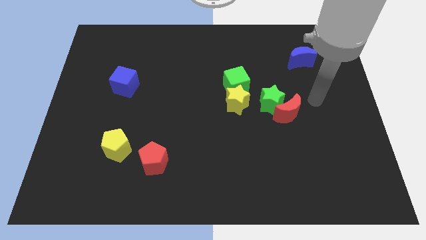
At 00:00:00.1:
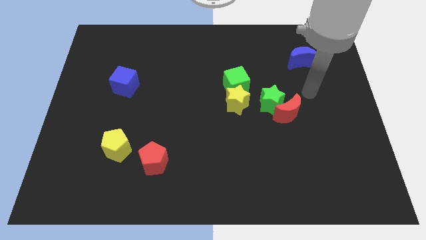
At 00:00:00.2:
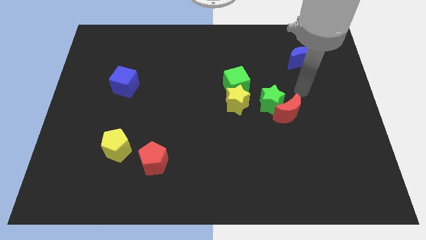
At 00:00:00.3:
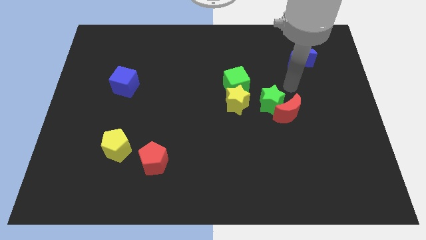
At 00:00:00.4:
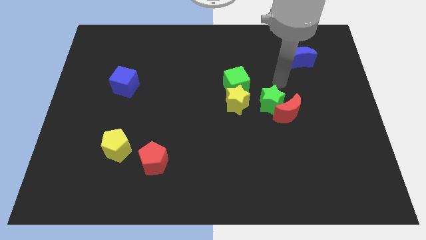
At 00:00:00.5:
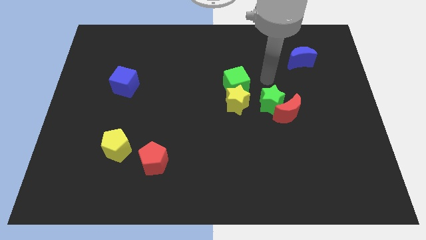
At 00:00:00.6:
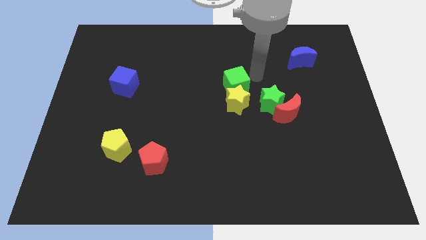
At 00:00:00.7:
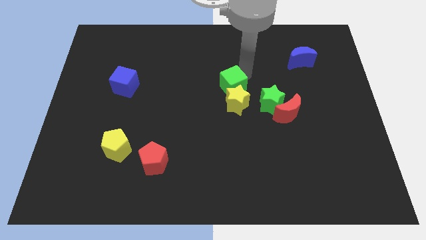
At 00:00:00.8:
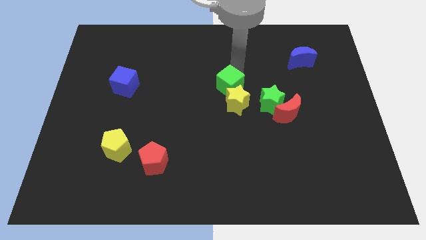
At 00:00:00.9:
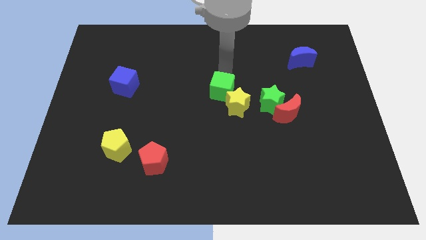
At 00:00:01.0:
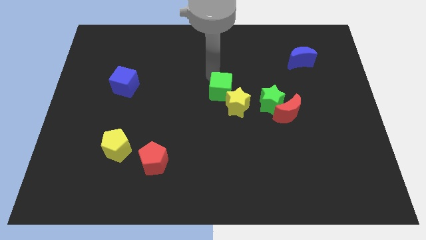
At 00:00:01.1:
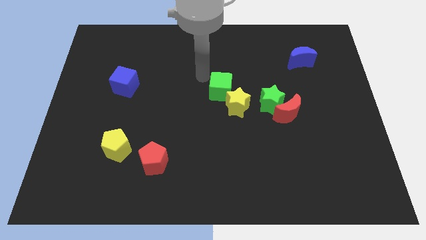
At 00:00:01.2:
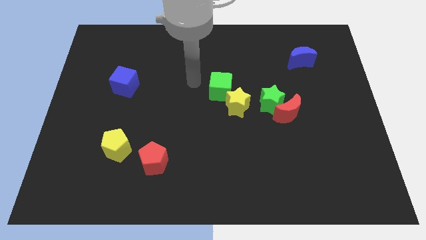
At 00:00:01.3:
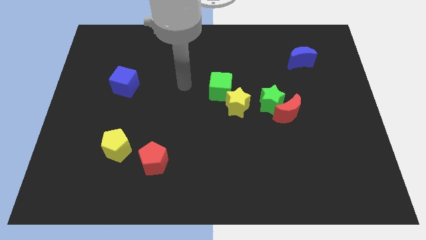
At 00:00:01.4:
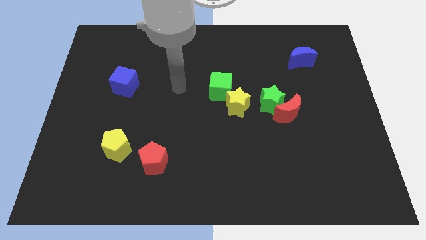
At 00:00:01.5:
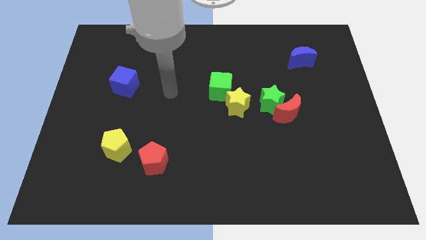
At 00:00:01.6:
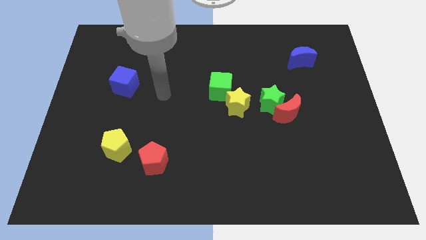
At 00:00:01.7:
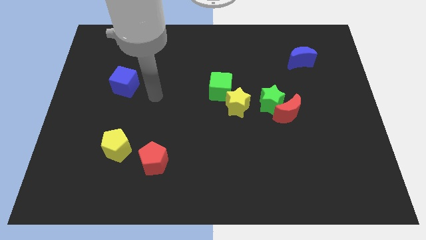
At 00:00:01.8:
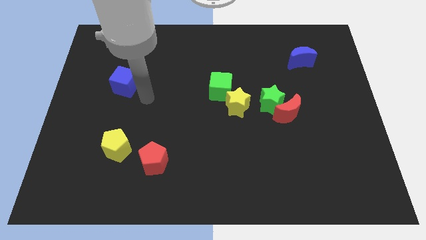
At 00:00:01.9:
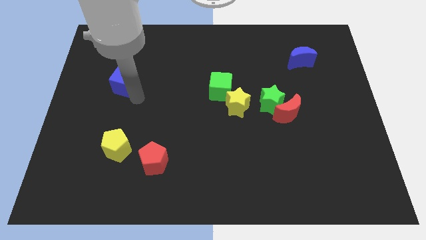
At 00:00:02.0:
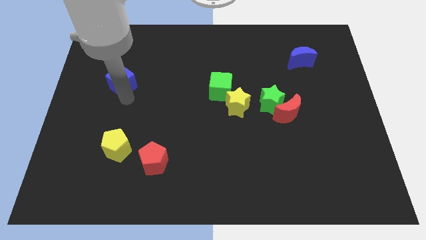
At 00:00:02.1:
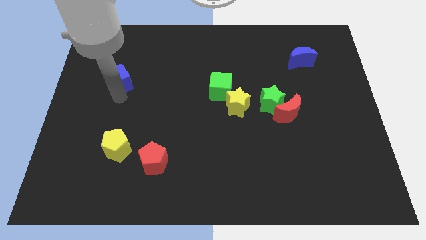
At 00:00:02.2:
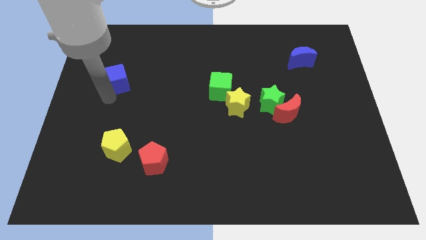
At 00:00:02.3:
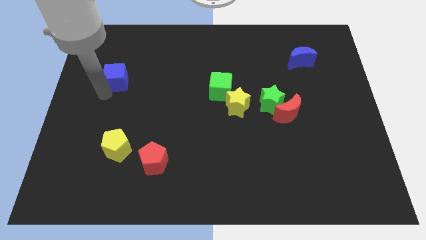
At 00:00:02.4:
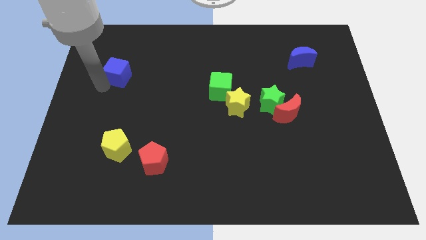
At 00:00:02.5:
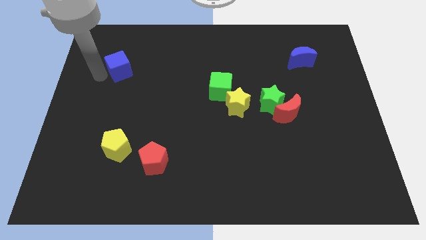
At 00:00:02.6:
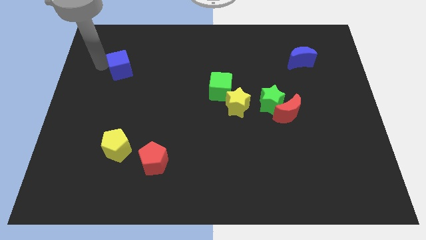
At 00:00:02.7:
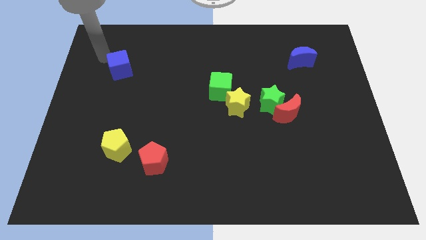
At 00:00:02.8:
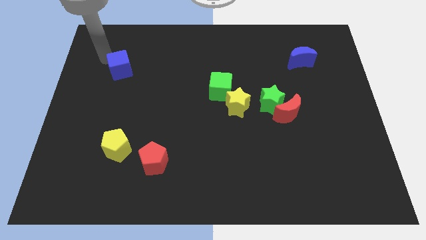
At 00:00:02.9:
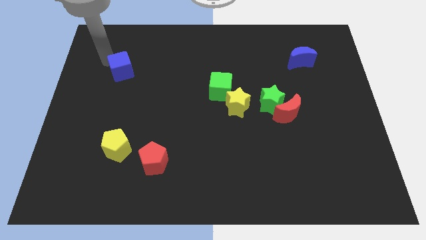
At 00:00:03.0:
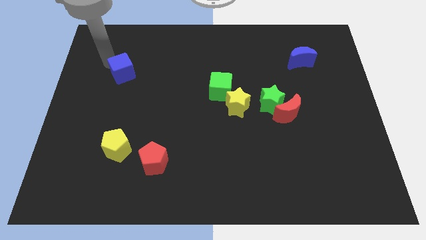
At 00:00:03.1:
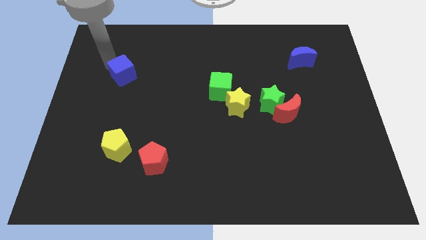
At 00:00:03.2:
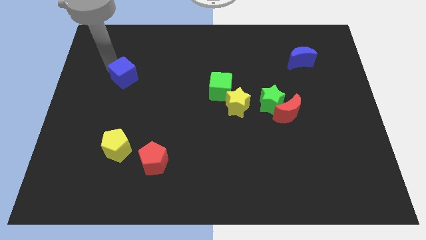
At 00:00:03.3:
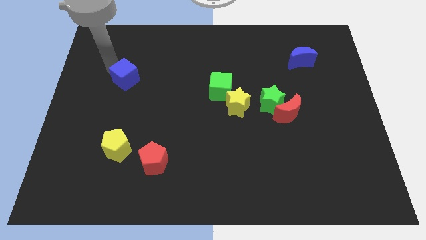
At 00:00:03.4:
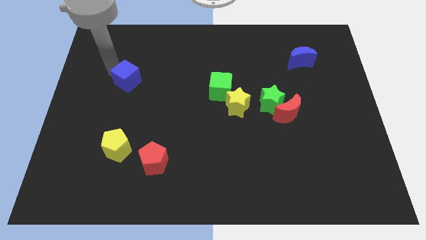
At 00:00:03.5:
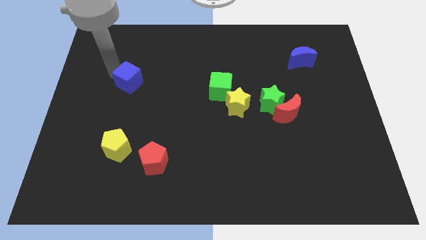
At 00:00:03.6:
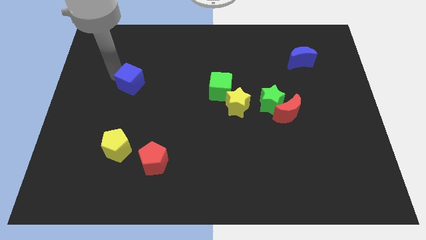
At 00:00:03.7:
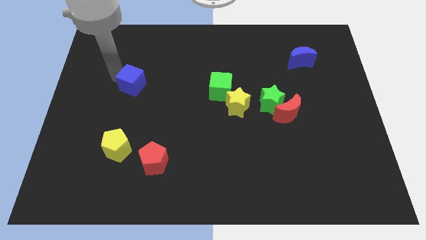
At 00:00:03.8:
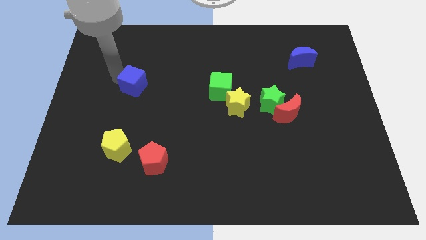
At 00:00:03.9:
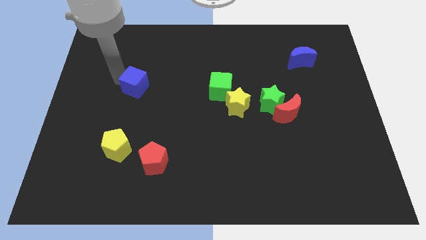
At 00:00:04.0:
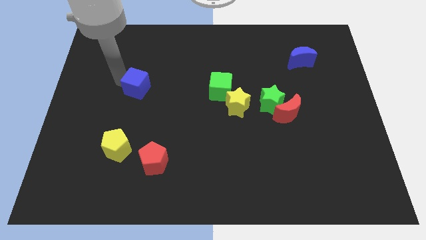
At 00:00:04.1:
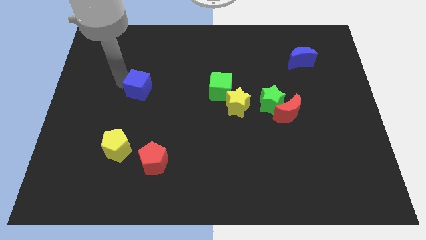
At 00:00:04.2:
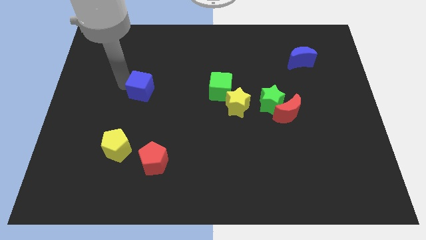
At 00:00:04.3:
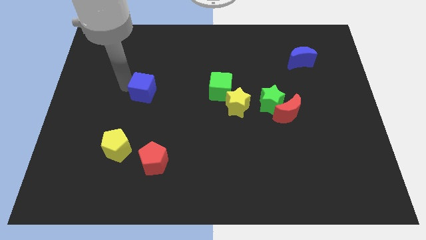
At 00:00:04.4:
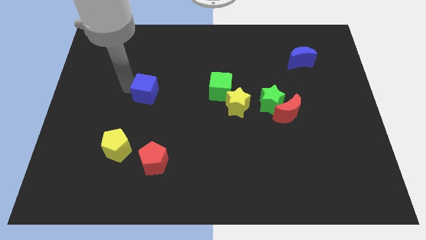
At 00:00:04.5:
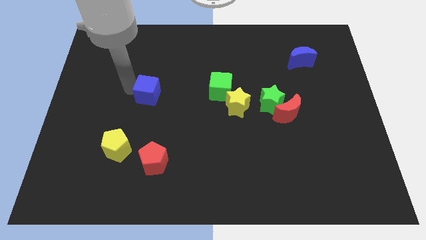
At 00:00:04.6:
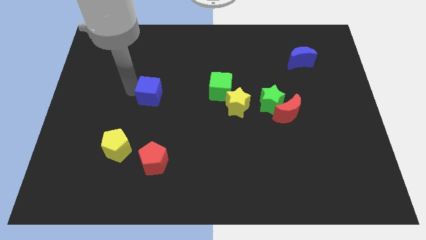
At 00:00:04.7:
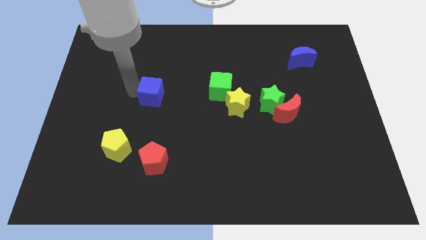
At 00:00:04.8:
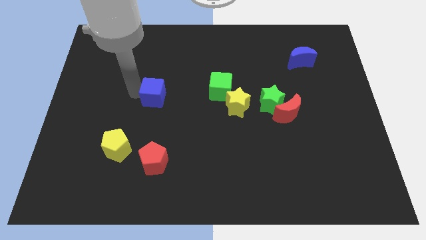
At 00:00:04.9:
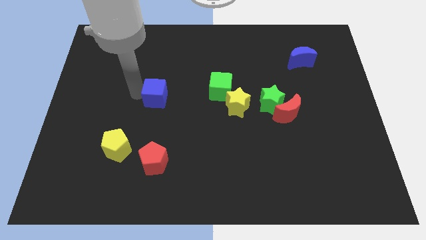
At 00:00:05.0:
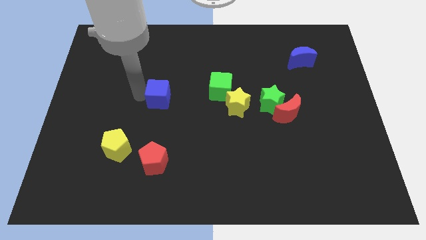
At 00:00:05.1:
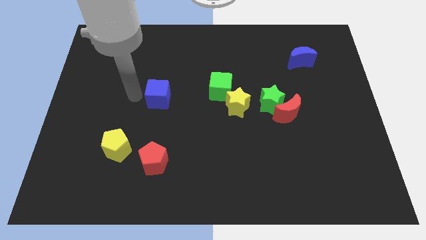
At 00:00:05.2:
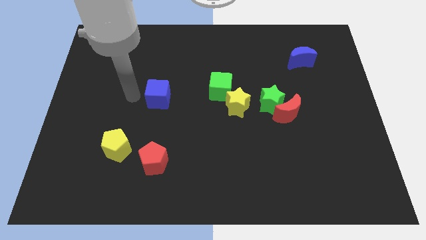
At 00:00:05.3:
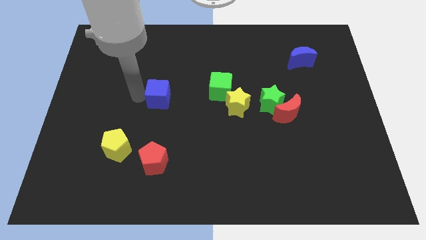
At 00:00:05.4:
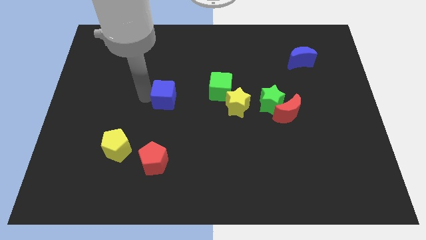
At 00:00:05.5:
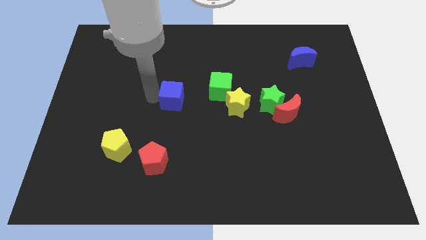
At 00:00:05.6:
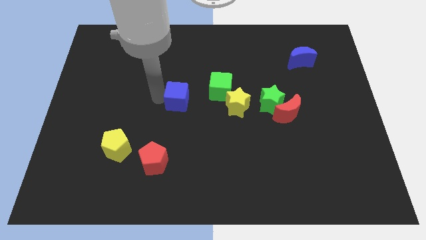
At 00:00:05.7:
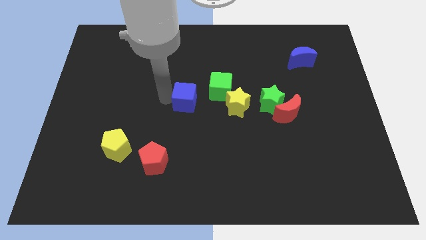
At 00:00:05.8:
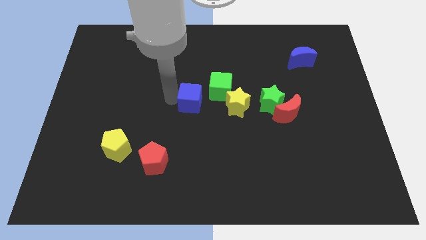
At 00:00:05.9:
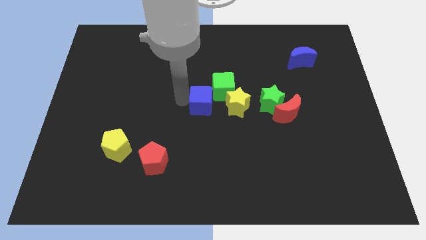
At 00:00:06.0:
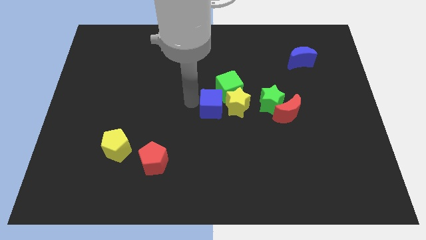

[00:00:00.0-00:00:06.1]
put the blue cube to the yellow star

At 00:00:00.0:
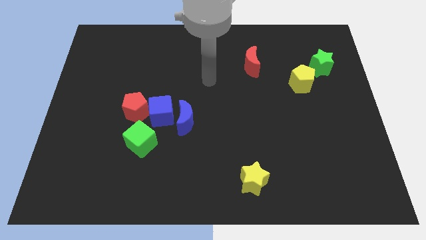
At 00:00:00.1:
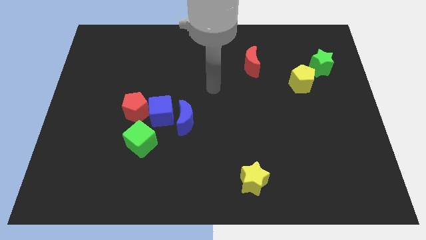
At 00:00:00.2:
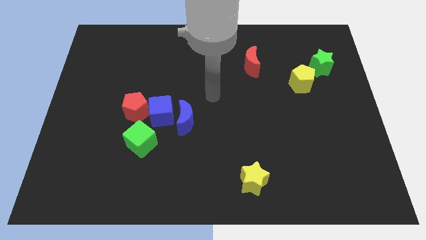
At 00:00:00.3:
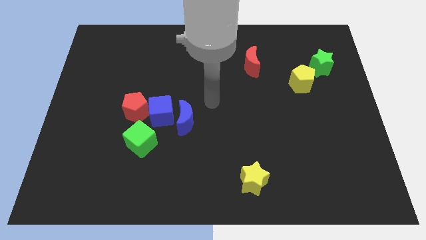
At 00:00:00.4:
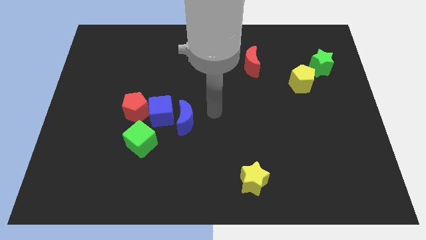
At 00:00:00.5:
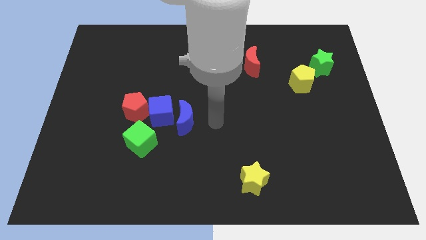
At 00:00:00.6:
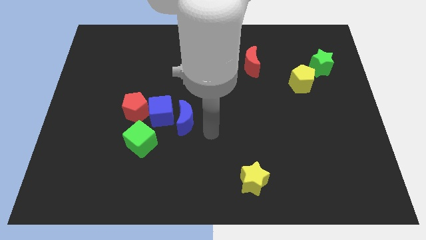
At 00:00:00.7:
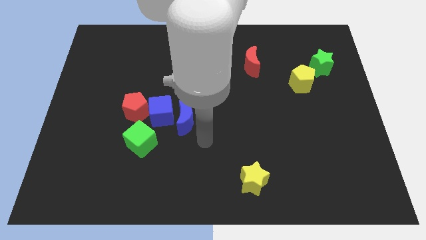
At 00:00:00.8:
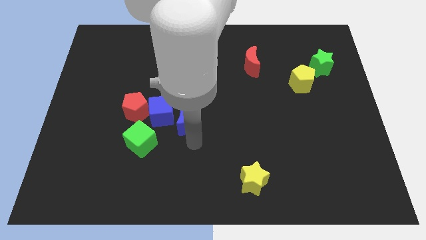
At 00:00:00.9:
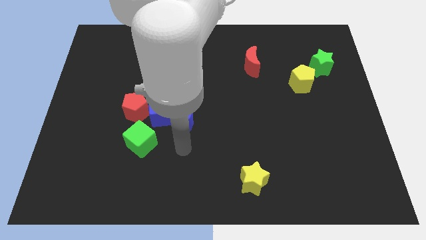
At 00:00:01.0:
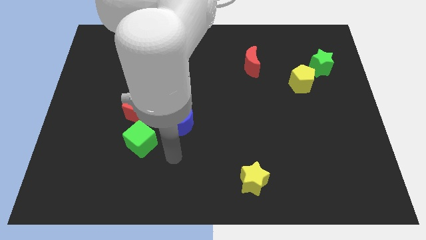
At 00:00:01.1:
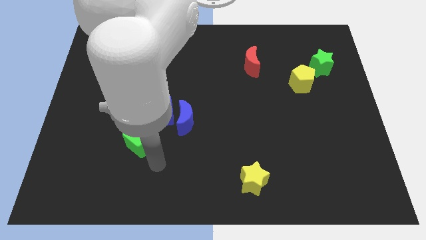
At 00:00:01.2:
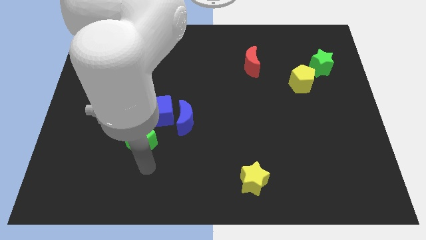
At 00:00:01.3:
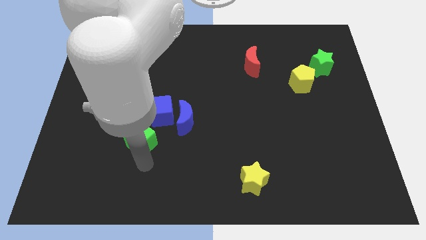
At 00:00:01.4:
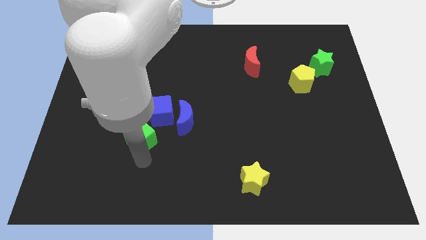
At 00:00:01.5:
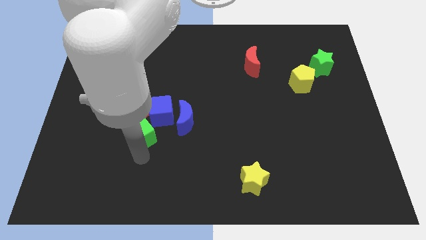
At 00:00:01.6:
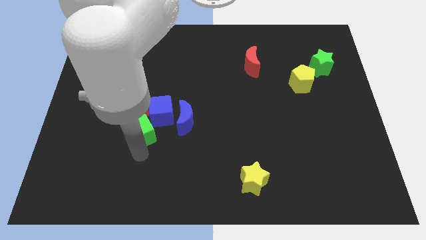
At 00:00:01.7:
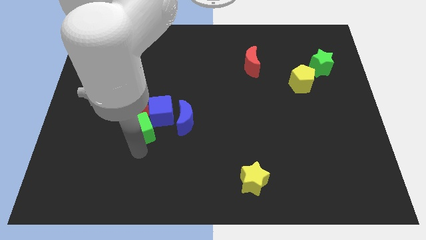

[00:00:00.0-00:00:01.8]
push the green cube to the red pentagon

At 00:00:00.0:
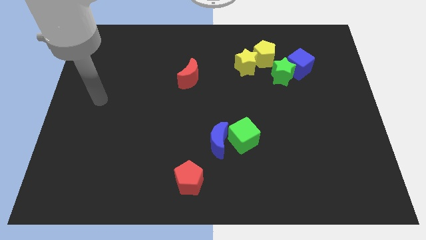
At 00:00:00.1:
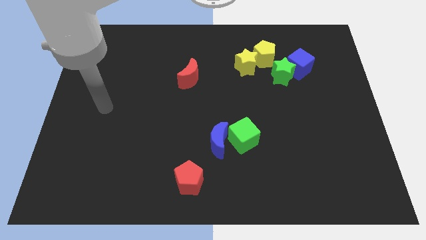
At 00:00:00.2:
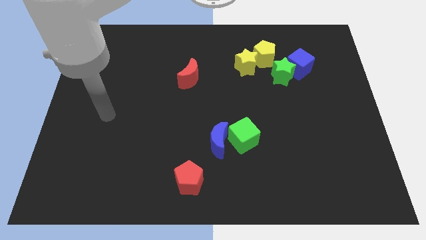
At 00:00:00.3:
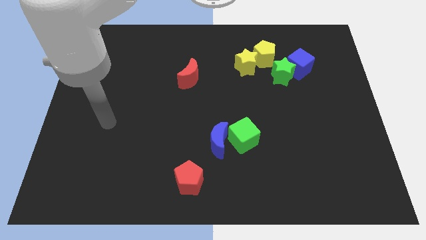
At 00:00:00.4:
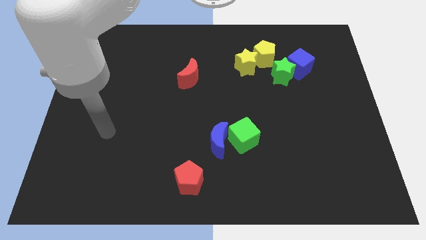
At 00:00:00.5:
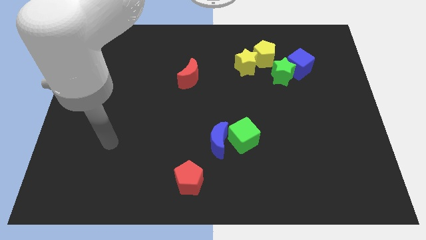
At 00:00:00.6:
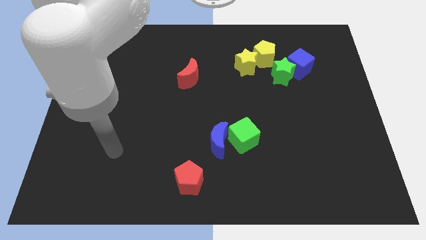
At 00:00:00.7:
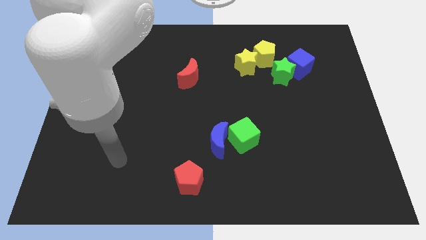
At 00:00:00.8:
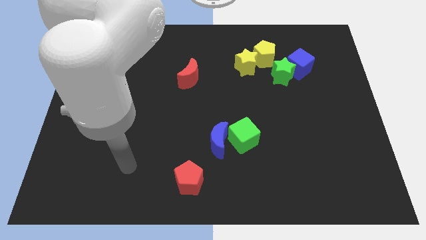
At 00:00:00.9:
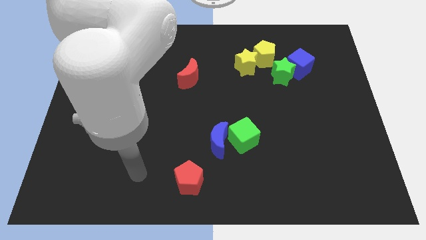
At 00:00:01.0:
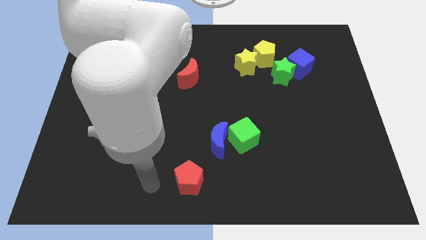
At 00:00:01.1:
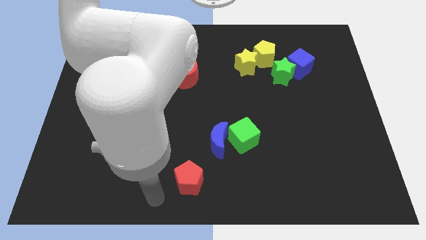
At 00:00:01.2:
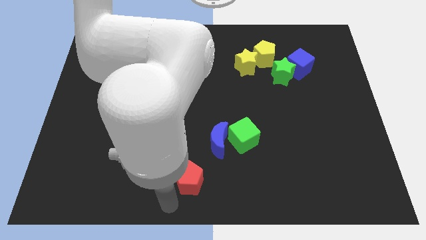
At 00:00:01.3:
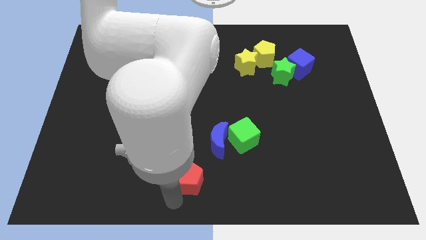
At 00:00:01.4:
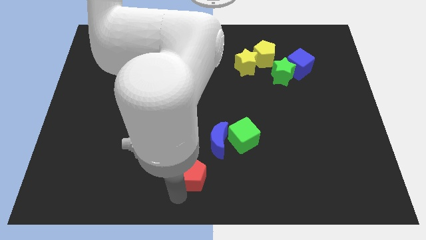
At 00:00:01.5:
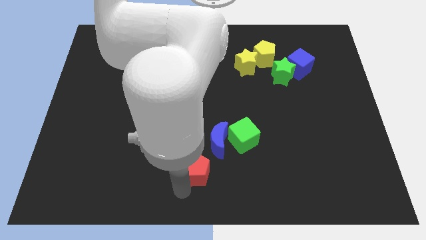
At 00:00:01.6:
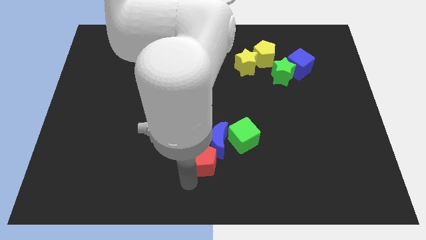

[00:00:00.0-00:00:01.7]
push the red pentagon towards the blue moon
